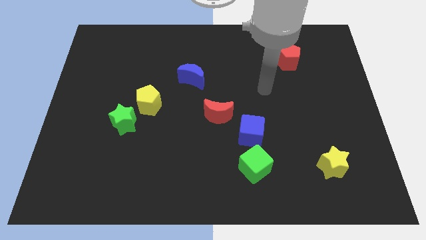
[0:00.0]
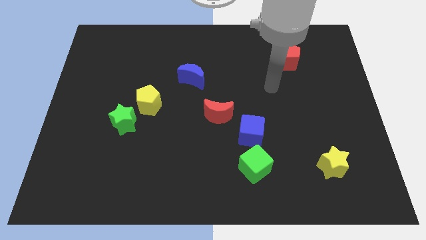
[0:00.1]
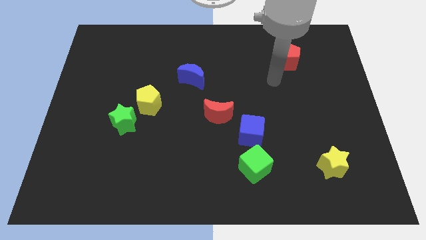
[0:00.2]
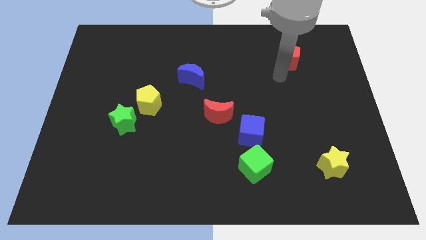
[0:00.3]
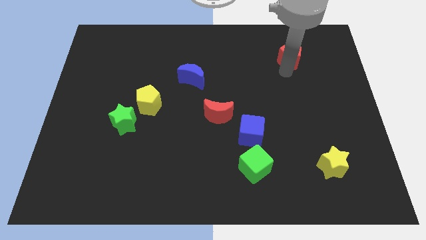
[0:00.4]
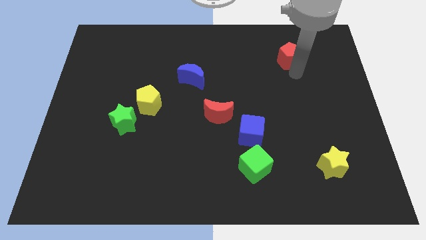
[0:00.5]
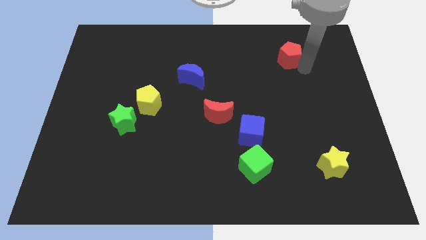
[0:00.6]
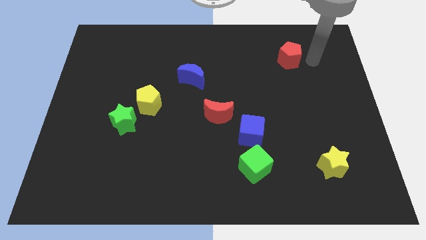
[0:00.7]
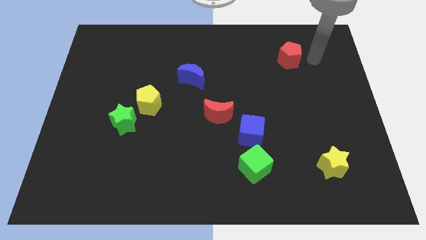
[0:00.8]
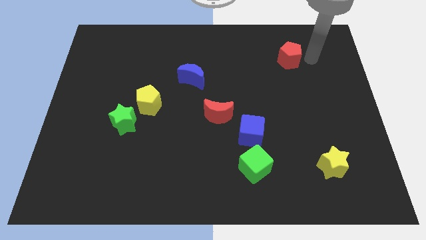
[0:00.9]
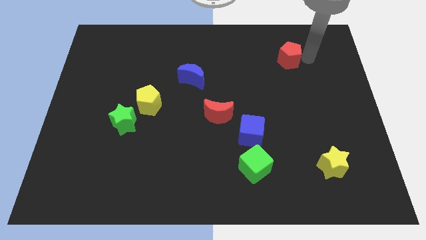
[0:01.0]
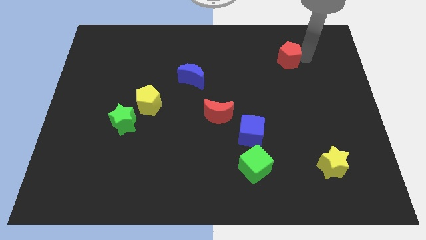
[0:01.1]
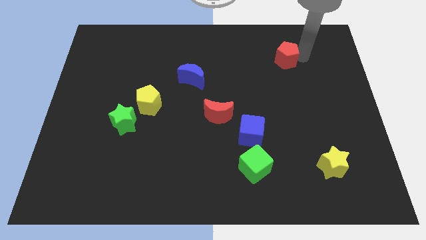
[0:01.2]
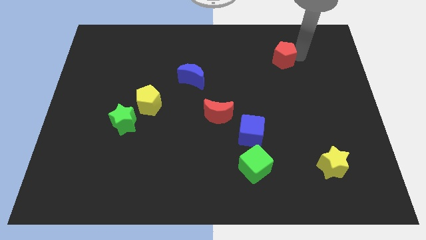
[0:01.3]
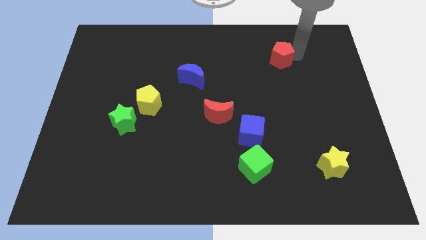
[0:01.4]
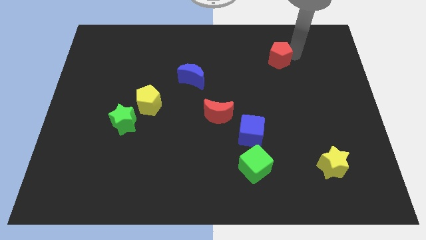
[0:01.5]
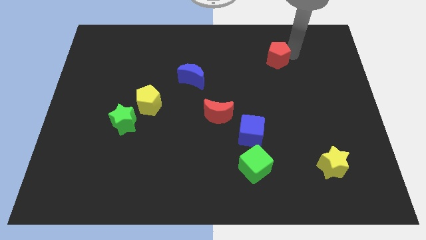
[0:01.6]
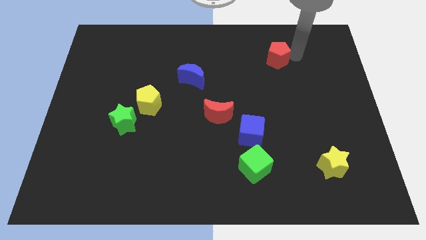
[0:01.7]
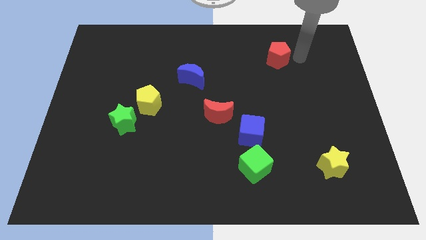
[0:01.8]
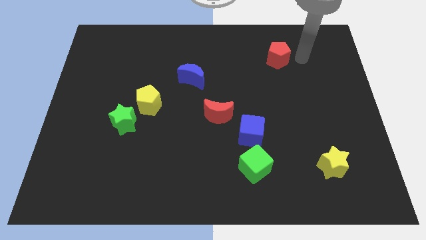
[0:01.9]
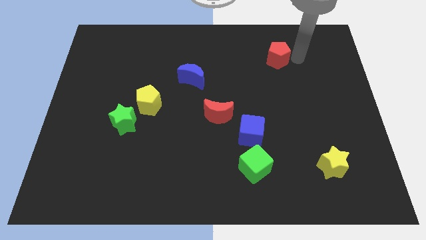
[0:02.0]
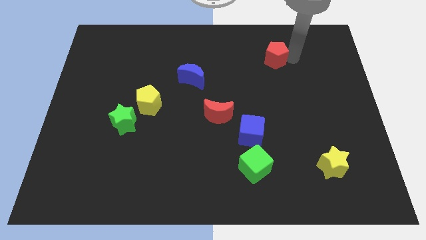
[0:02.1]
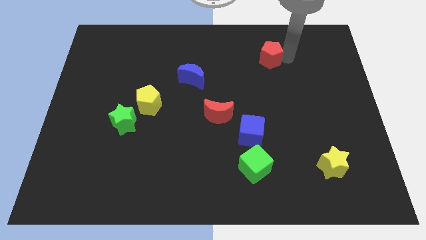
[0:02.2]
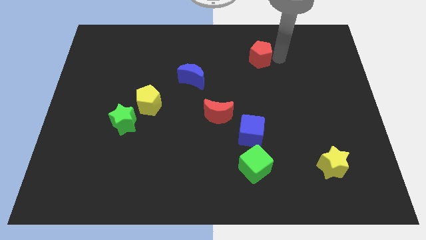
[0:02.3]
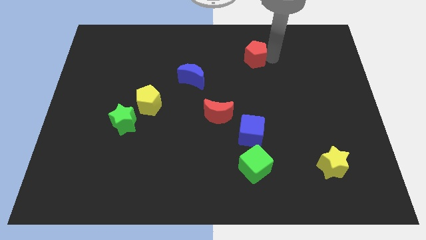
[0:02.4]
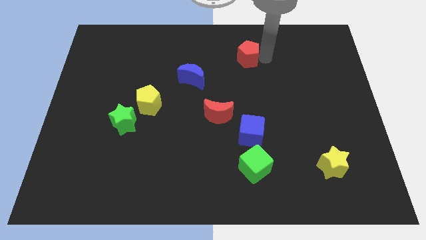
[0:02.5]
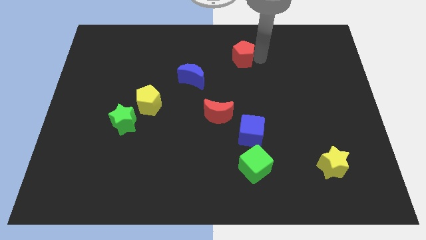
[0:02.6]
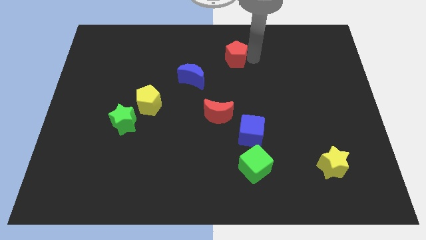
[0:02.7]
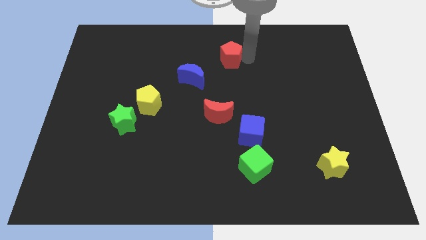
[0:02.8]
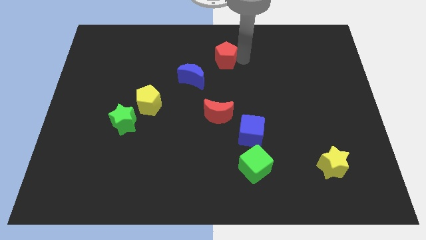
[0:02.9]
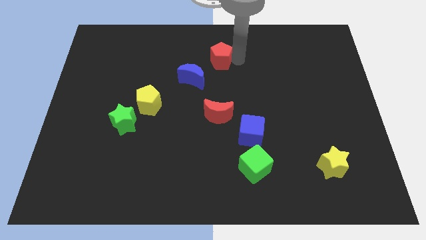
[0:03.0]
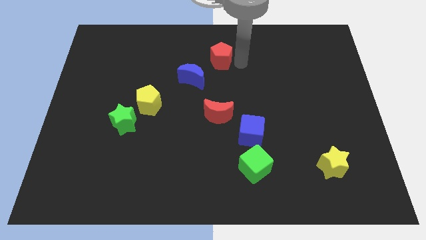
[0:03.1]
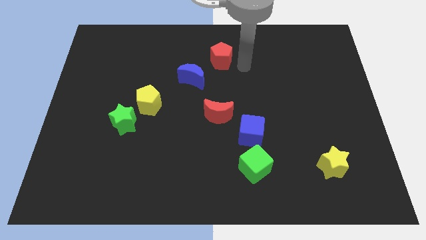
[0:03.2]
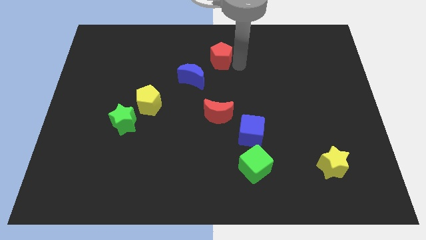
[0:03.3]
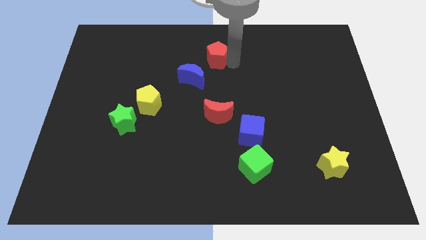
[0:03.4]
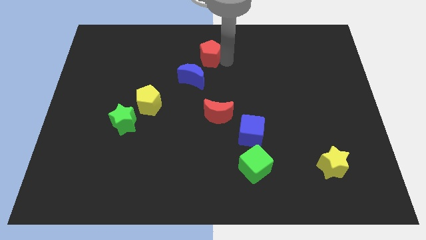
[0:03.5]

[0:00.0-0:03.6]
move the red pentagon left

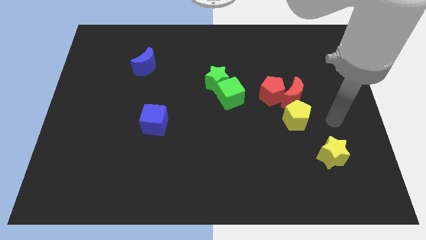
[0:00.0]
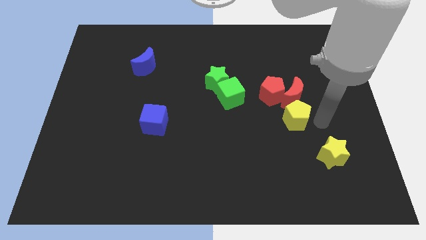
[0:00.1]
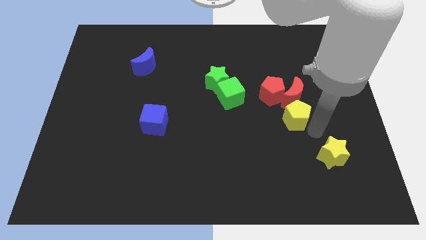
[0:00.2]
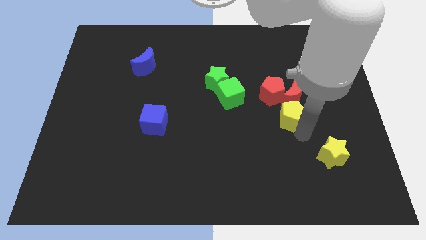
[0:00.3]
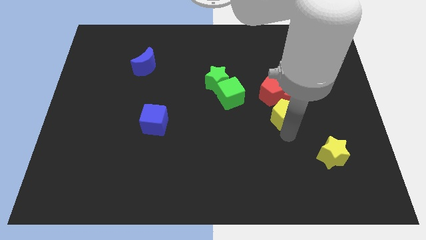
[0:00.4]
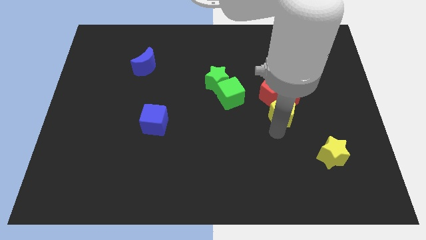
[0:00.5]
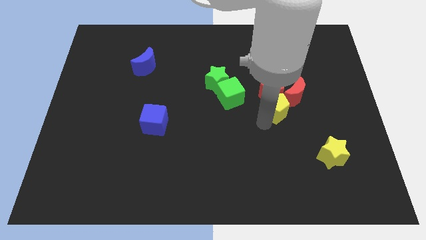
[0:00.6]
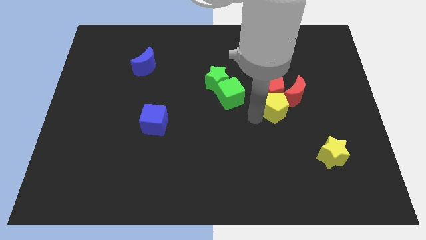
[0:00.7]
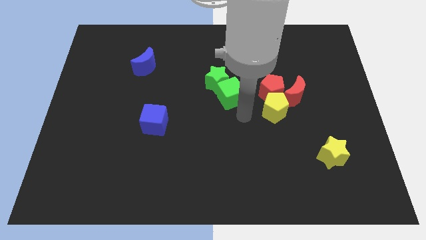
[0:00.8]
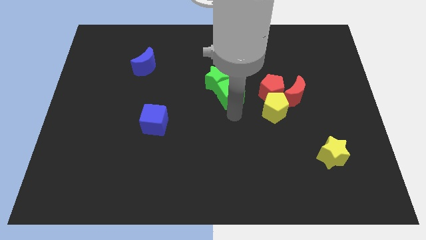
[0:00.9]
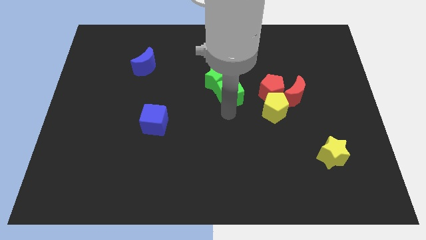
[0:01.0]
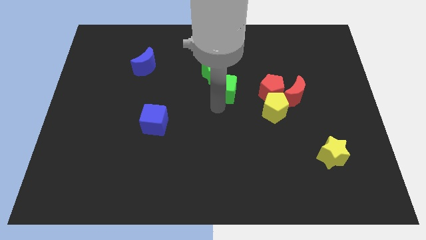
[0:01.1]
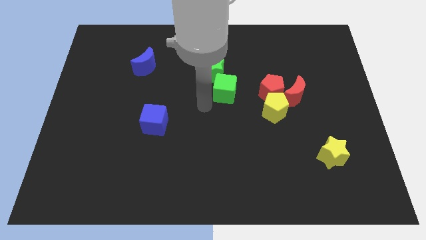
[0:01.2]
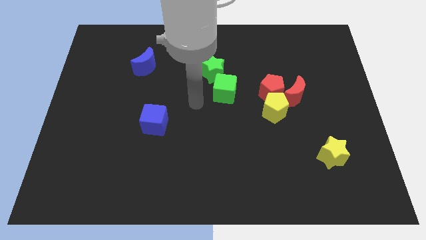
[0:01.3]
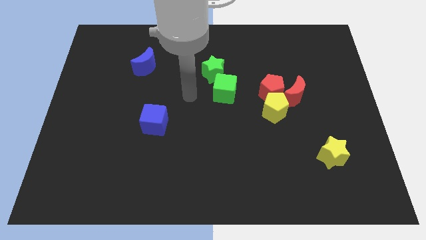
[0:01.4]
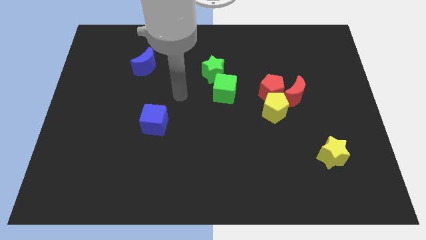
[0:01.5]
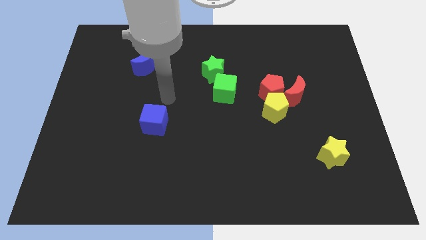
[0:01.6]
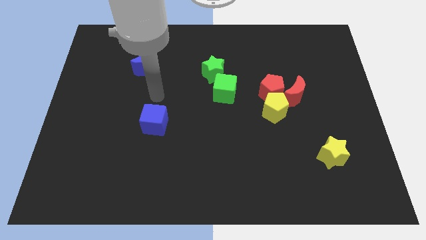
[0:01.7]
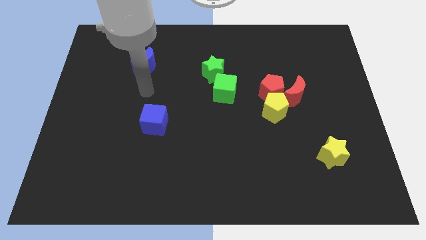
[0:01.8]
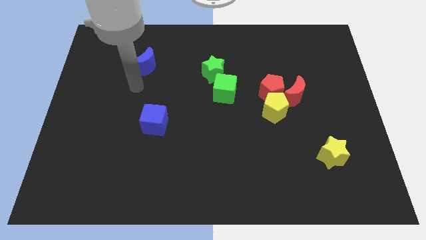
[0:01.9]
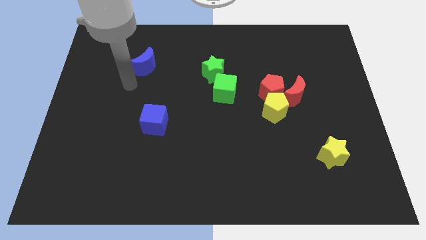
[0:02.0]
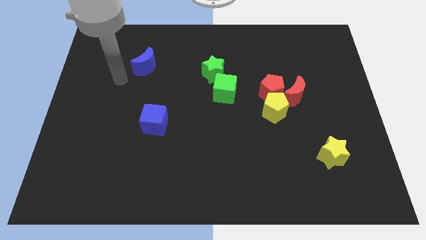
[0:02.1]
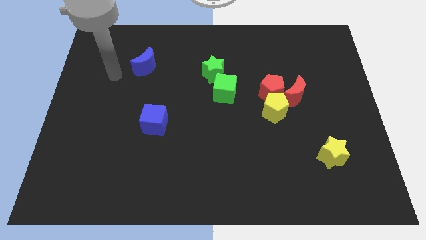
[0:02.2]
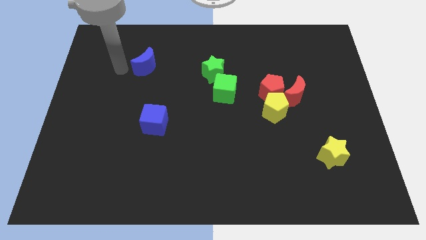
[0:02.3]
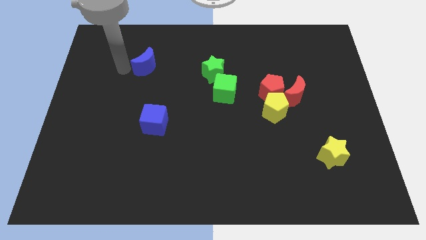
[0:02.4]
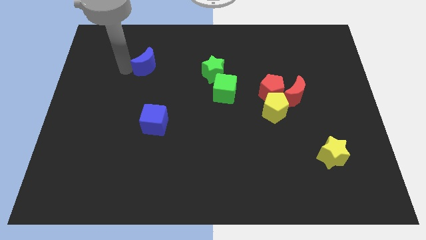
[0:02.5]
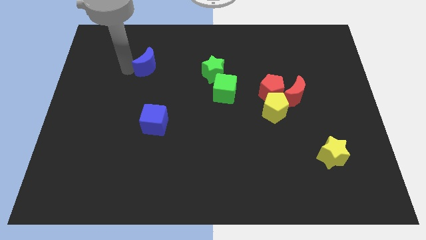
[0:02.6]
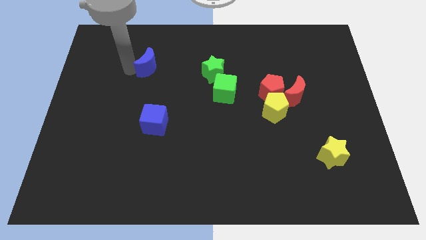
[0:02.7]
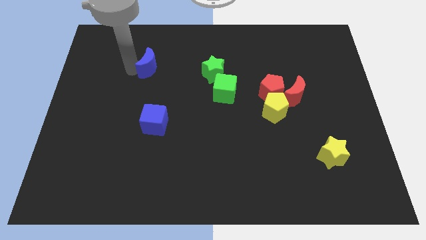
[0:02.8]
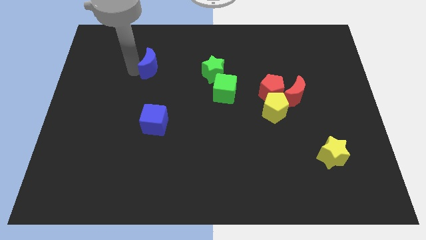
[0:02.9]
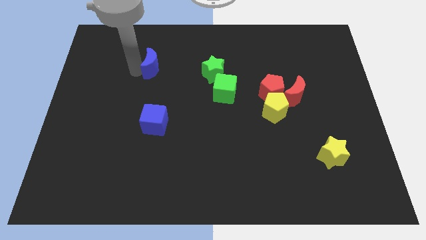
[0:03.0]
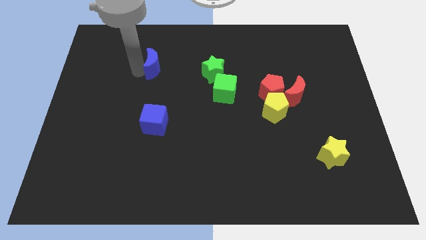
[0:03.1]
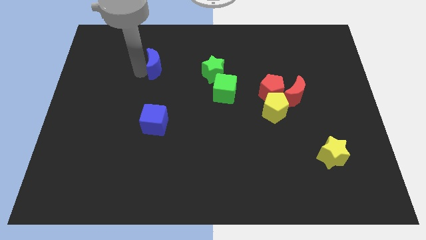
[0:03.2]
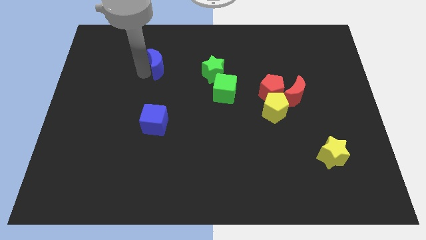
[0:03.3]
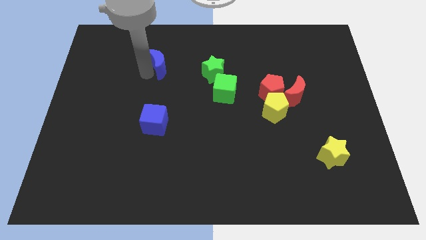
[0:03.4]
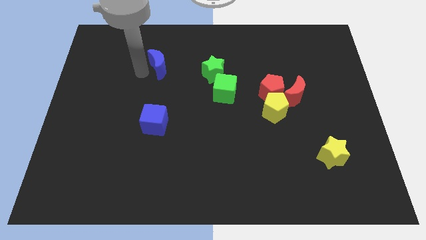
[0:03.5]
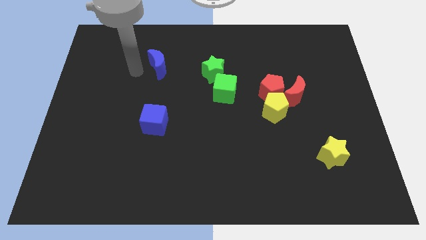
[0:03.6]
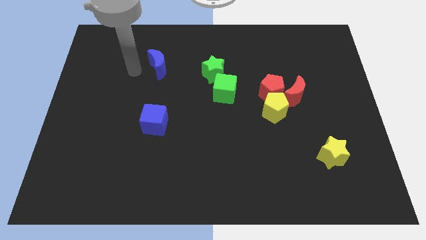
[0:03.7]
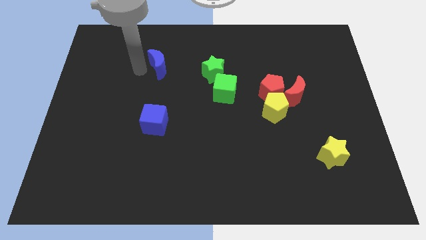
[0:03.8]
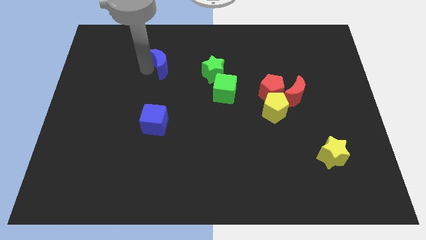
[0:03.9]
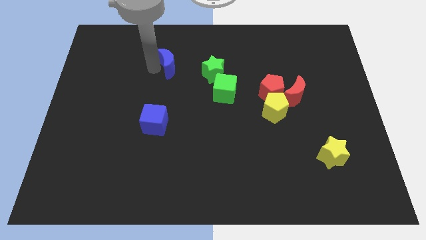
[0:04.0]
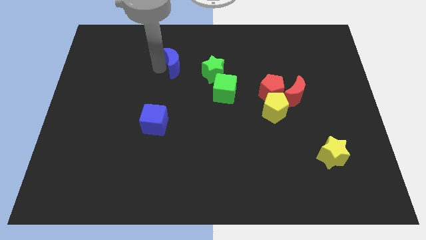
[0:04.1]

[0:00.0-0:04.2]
move the blue moon right slightly

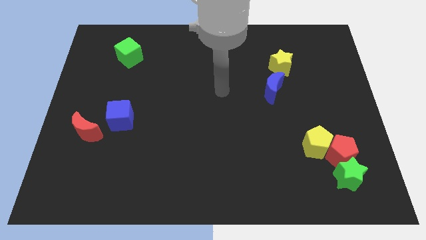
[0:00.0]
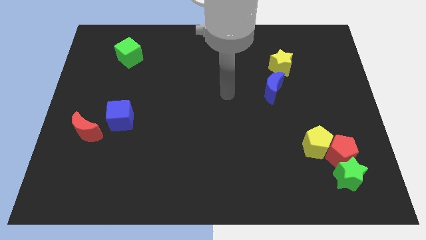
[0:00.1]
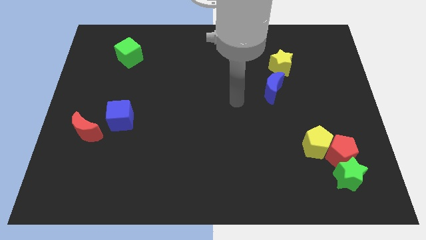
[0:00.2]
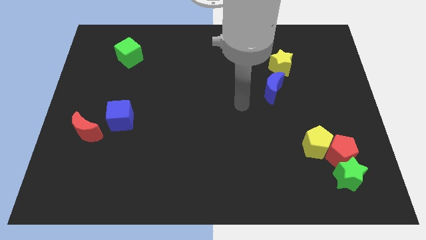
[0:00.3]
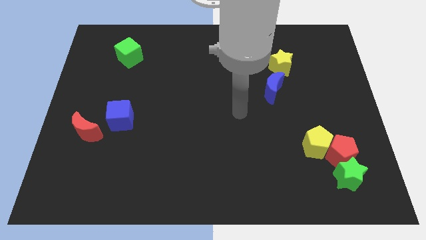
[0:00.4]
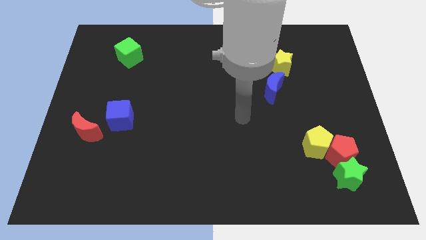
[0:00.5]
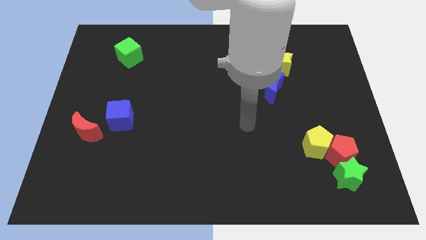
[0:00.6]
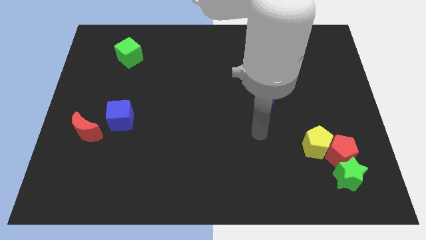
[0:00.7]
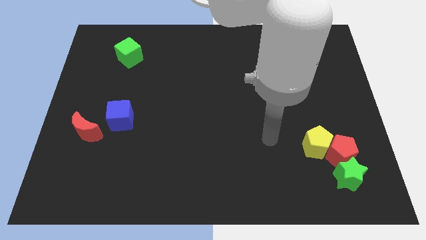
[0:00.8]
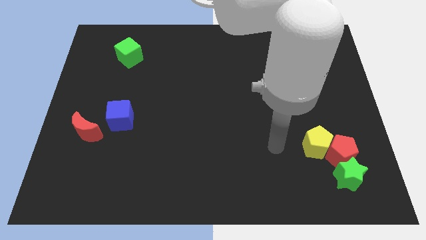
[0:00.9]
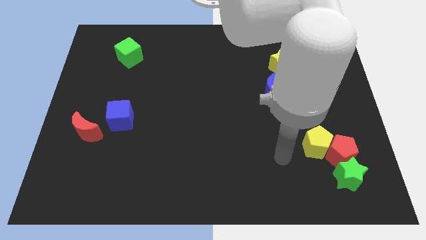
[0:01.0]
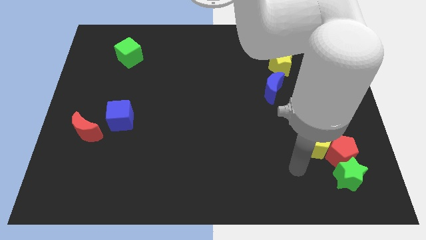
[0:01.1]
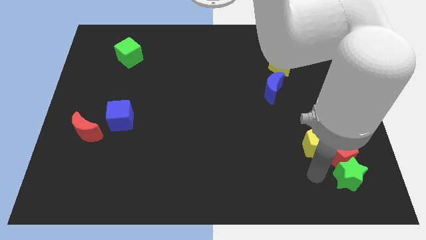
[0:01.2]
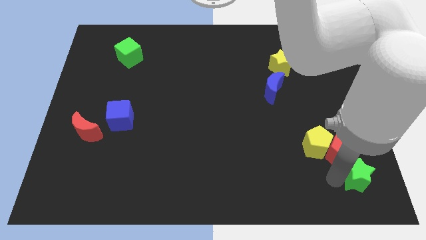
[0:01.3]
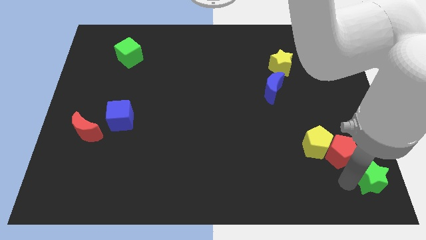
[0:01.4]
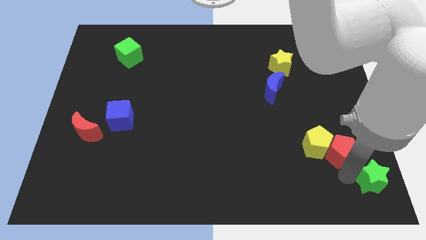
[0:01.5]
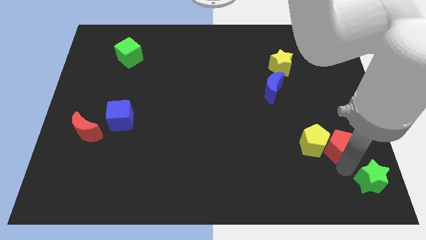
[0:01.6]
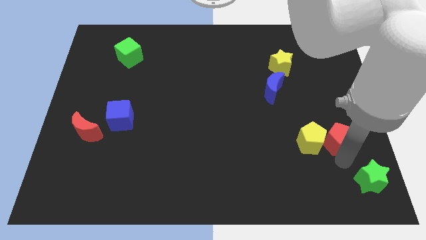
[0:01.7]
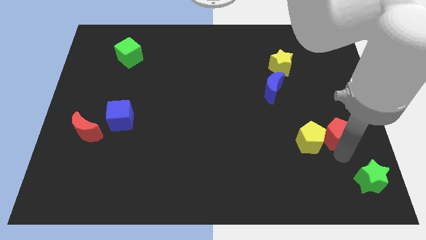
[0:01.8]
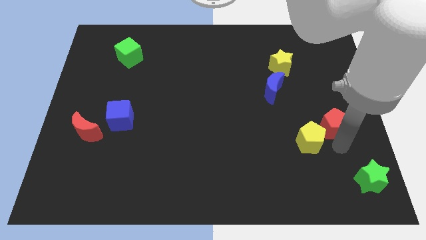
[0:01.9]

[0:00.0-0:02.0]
push the red pentagon upwards a bit
